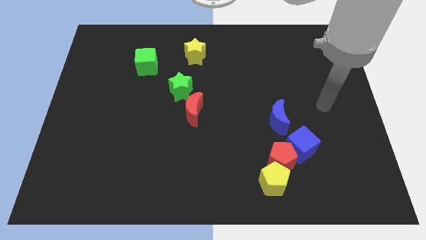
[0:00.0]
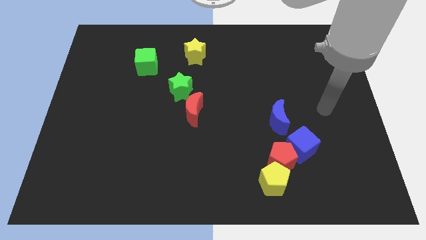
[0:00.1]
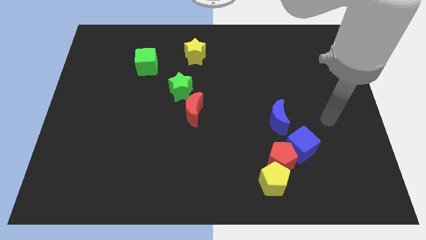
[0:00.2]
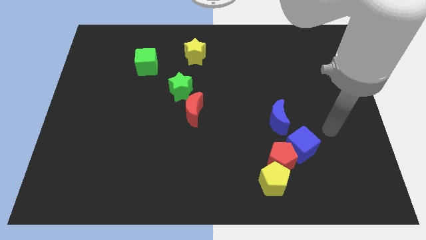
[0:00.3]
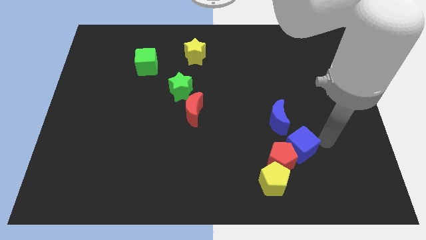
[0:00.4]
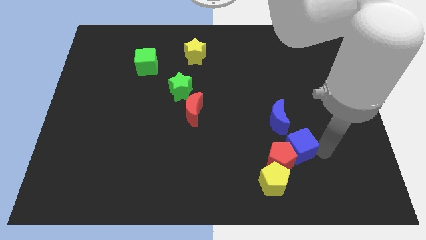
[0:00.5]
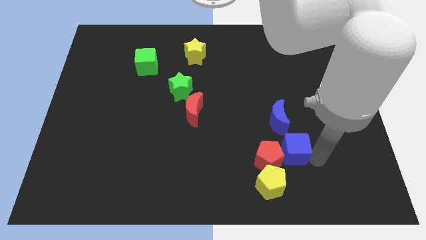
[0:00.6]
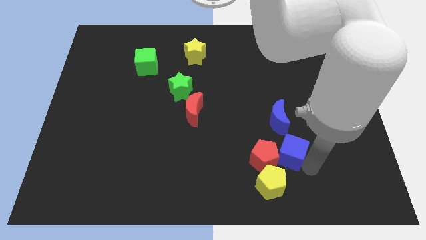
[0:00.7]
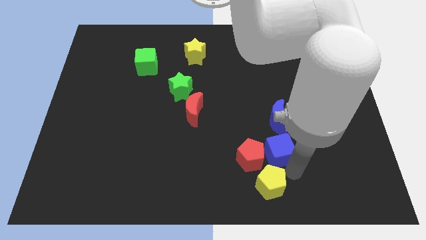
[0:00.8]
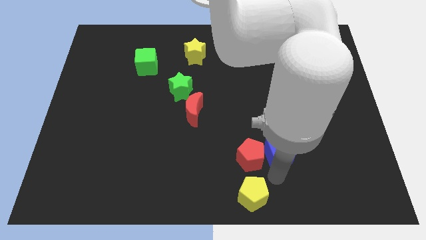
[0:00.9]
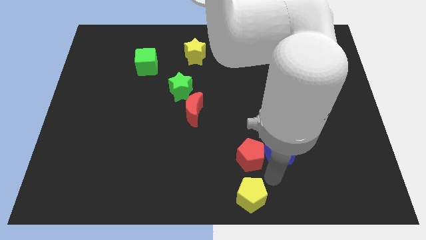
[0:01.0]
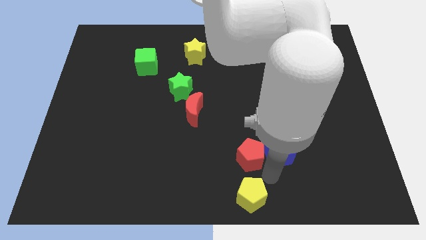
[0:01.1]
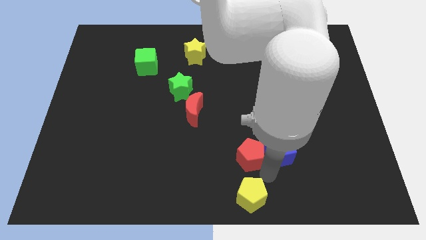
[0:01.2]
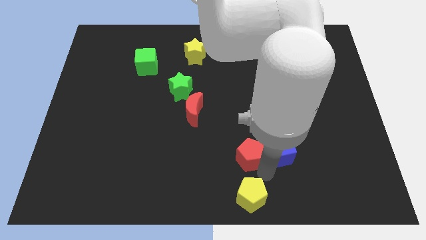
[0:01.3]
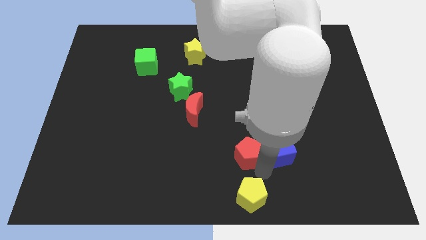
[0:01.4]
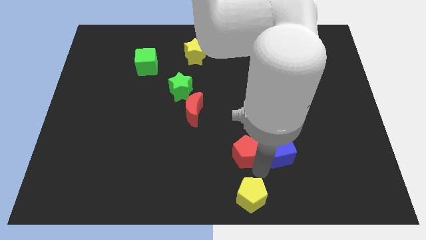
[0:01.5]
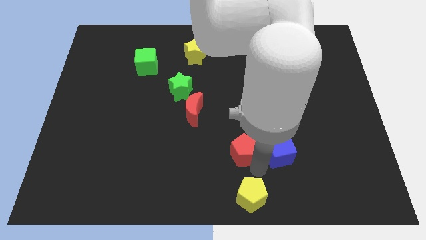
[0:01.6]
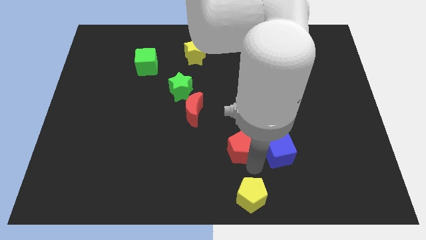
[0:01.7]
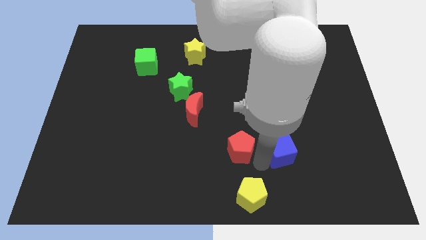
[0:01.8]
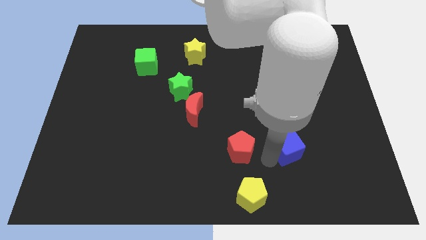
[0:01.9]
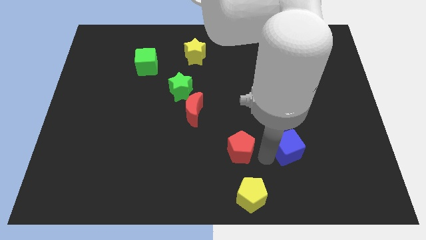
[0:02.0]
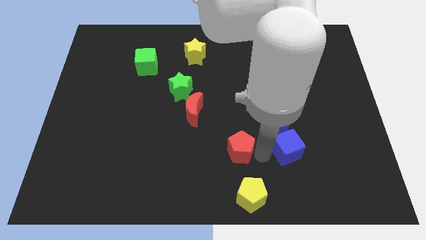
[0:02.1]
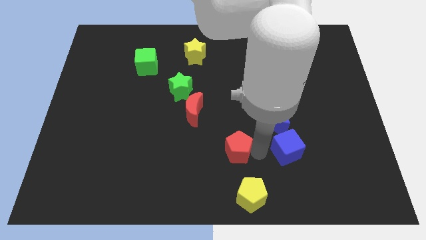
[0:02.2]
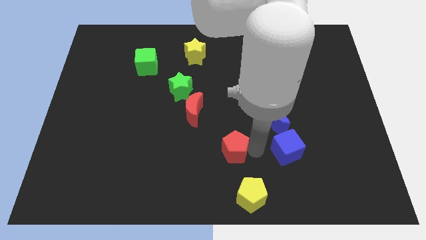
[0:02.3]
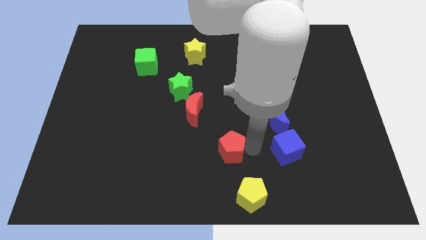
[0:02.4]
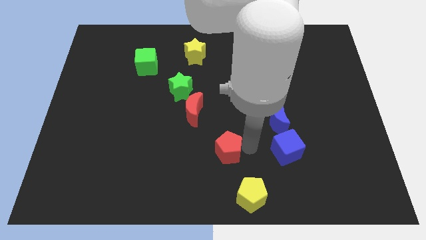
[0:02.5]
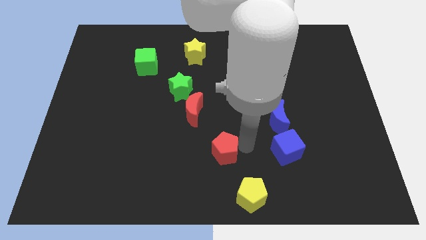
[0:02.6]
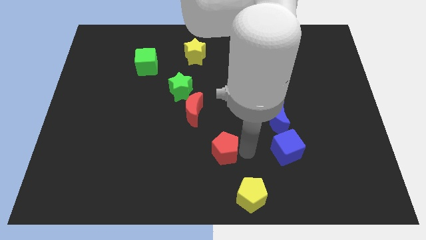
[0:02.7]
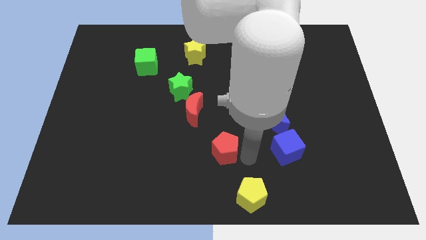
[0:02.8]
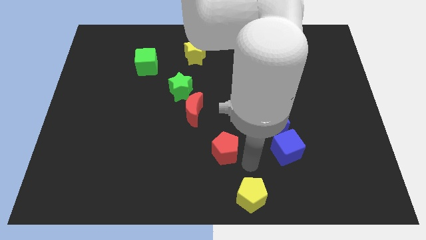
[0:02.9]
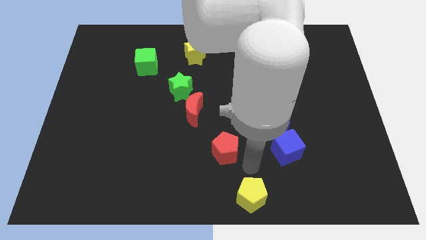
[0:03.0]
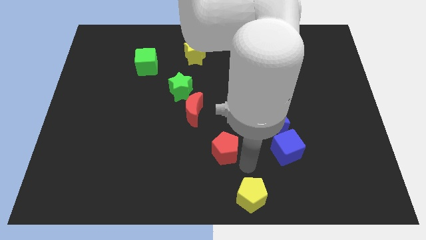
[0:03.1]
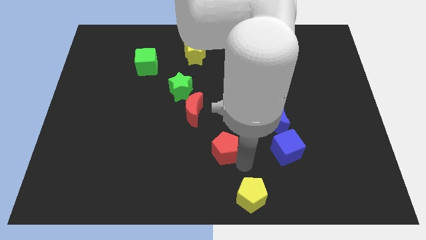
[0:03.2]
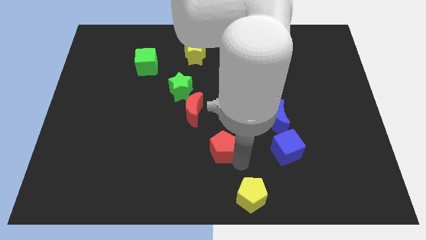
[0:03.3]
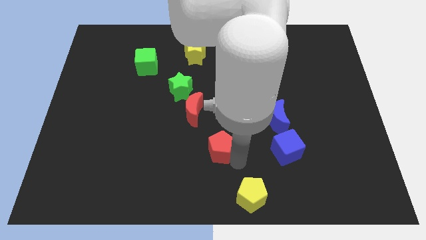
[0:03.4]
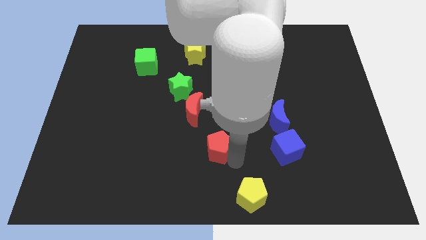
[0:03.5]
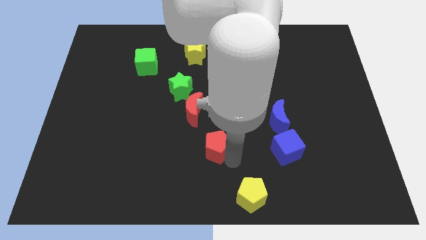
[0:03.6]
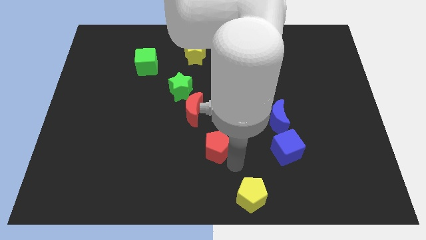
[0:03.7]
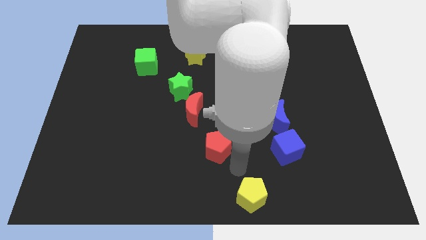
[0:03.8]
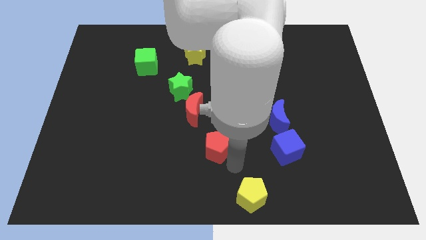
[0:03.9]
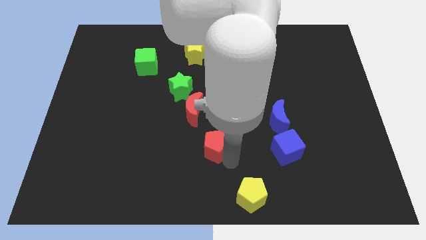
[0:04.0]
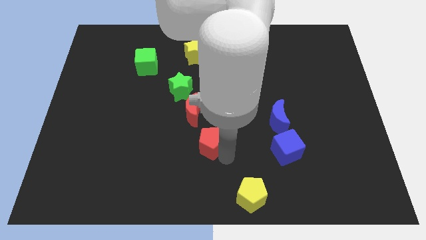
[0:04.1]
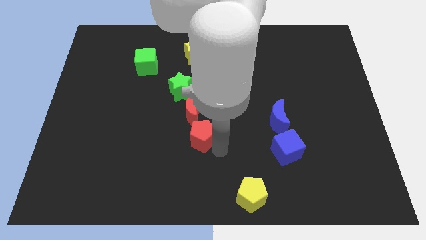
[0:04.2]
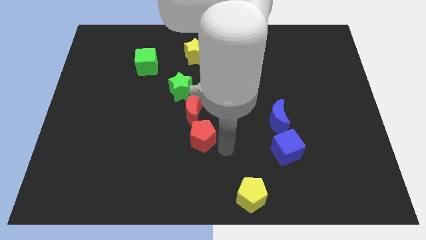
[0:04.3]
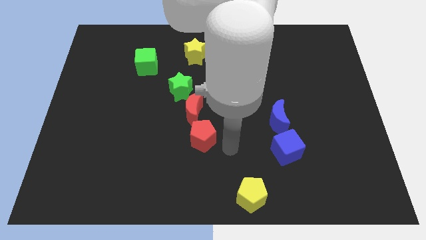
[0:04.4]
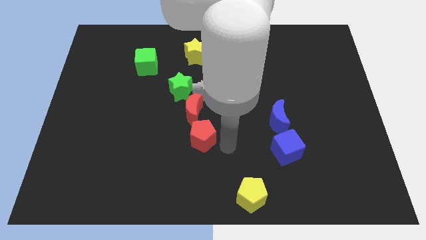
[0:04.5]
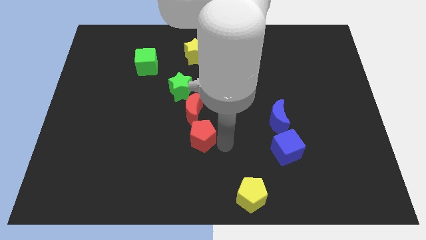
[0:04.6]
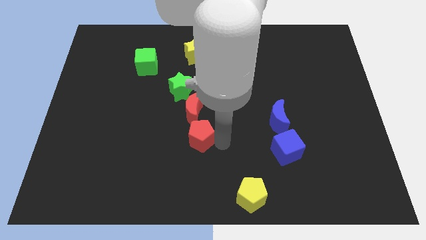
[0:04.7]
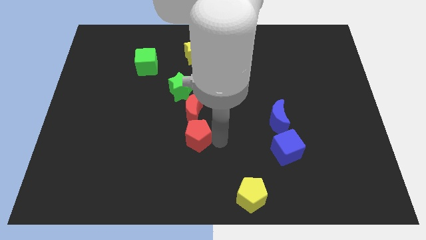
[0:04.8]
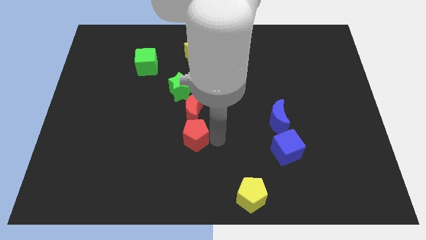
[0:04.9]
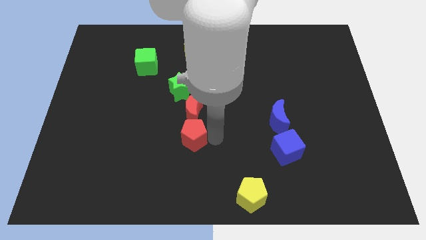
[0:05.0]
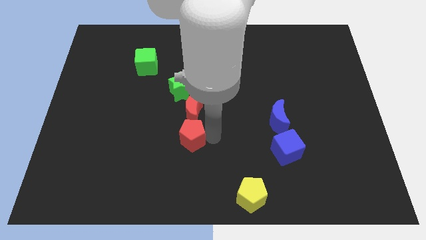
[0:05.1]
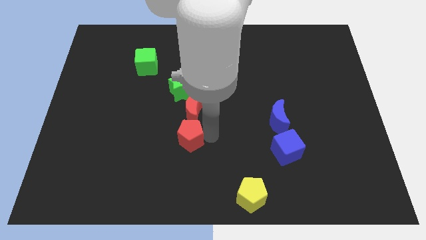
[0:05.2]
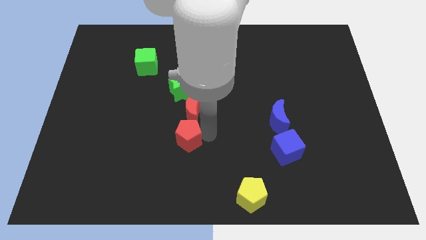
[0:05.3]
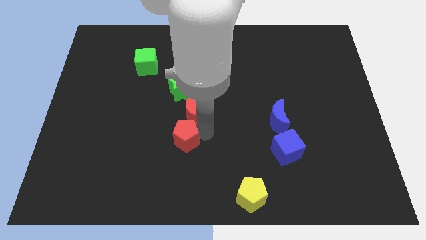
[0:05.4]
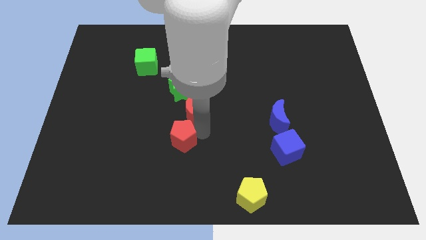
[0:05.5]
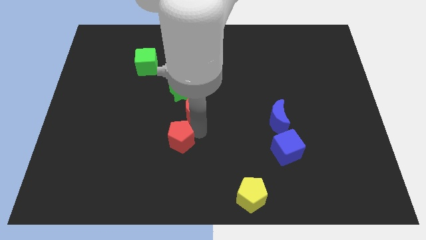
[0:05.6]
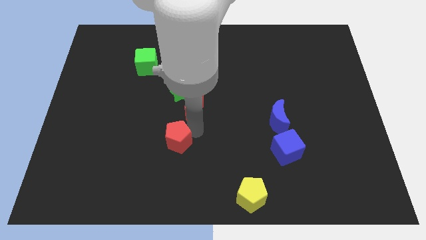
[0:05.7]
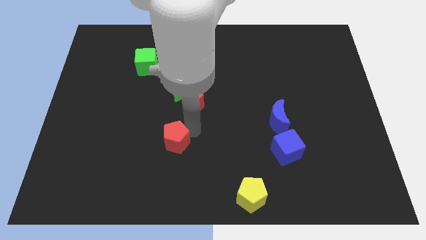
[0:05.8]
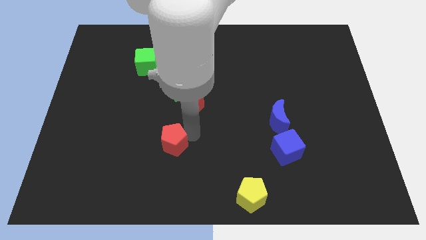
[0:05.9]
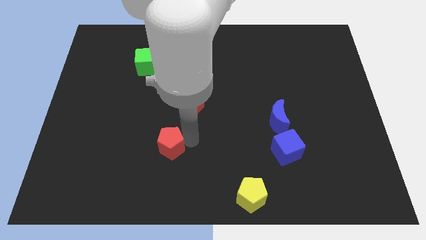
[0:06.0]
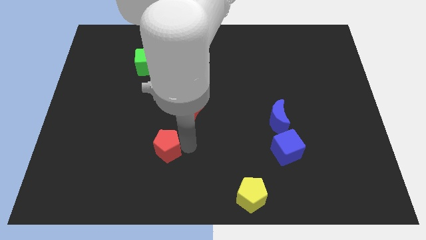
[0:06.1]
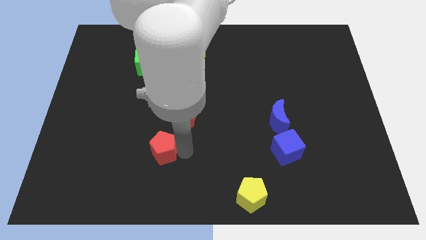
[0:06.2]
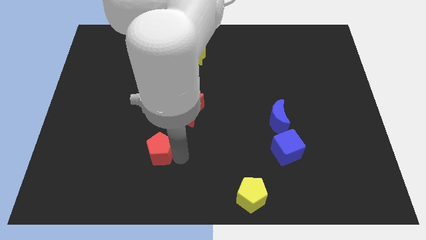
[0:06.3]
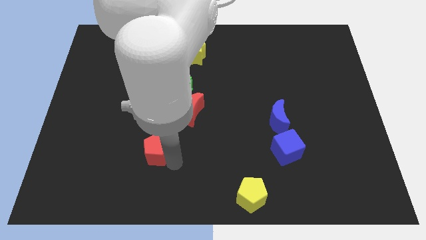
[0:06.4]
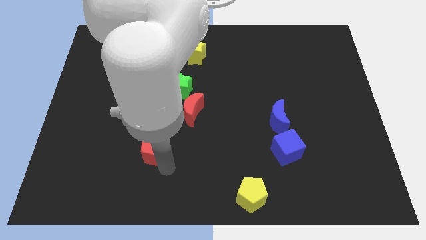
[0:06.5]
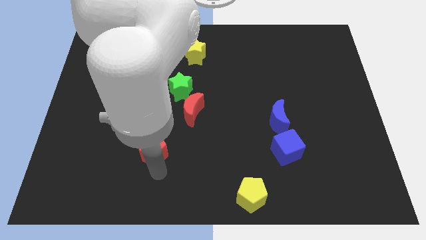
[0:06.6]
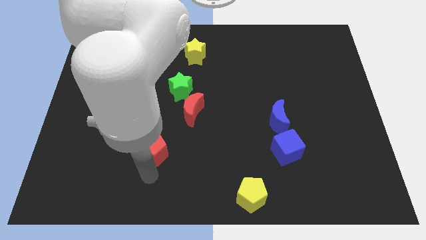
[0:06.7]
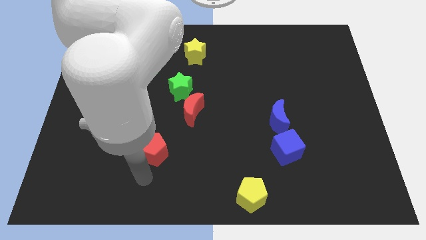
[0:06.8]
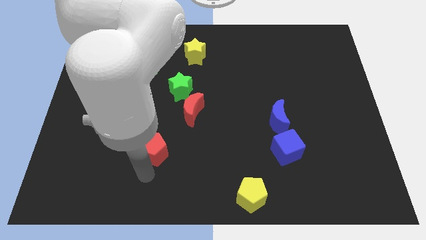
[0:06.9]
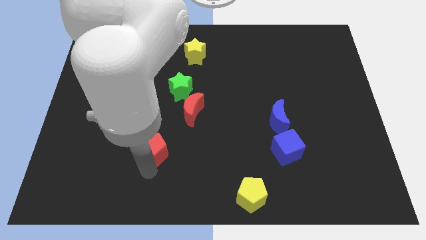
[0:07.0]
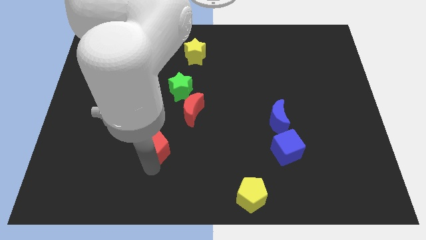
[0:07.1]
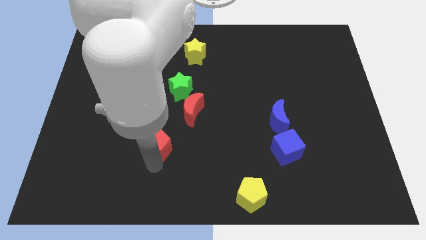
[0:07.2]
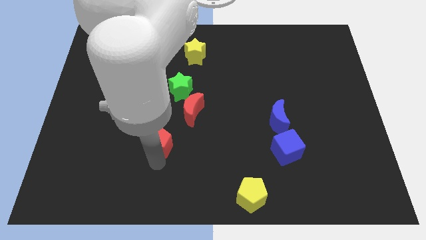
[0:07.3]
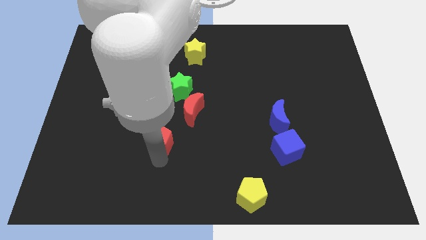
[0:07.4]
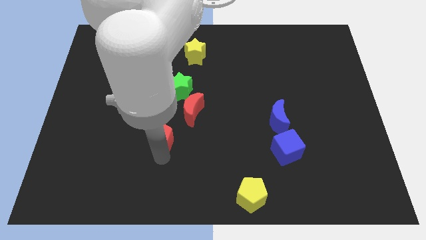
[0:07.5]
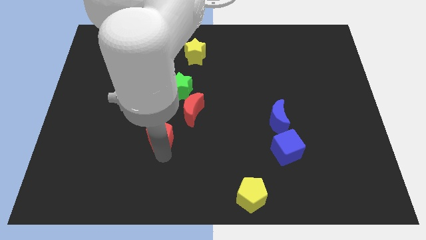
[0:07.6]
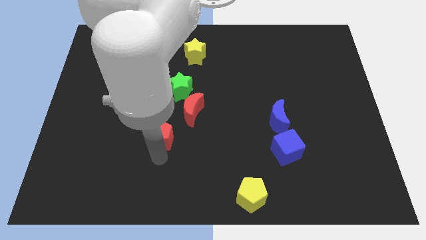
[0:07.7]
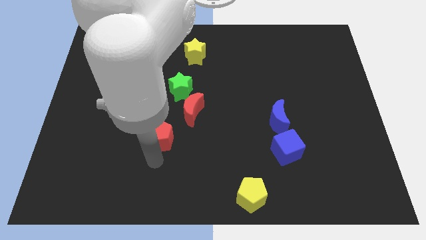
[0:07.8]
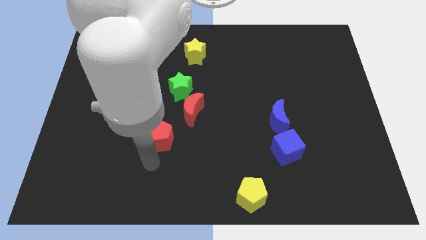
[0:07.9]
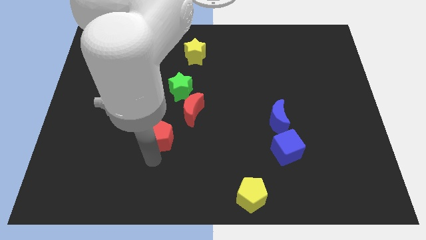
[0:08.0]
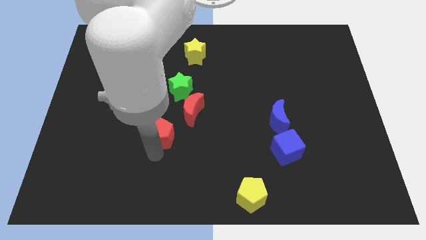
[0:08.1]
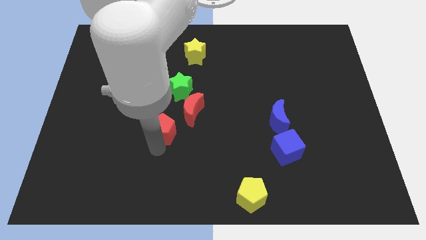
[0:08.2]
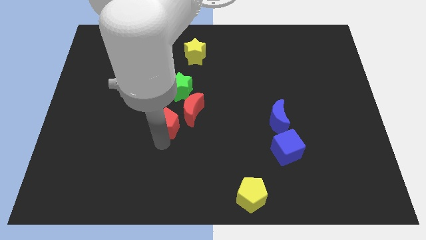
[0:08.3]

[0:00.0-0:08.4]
push the red pentagon just left of the red moon
